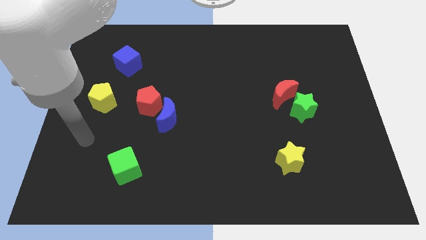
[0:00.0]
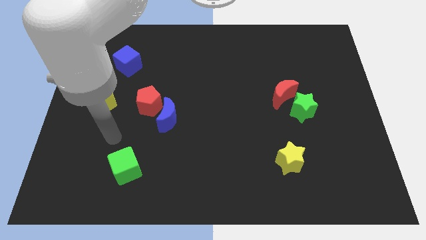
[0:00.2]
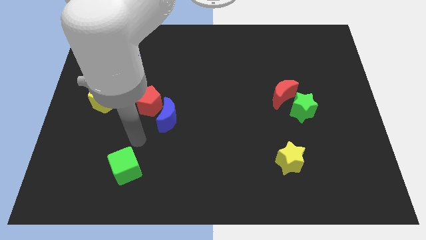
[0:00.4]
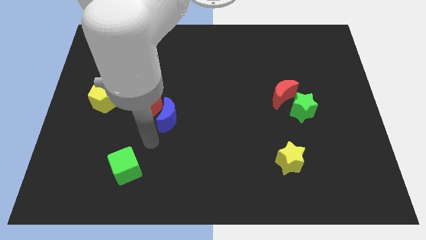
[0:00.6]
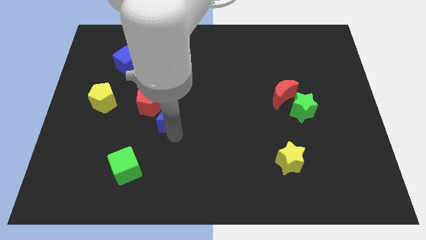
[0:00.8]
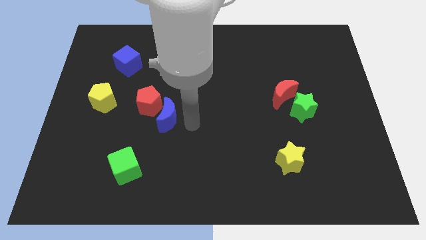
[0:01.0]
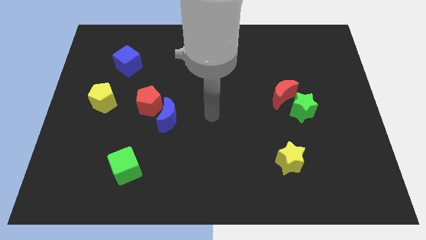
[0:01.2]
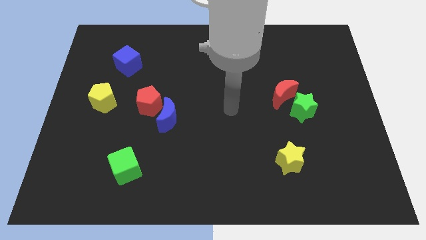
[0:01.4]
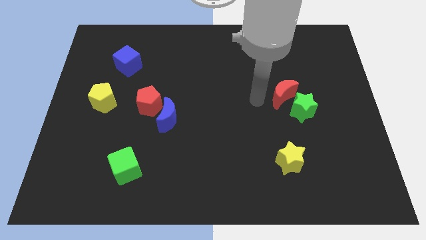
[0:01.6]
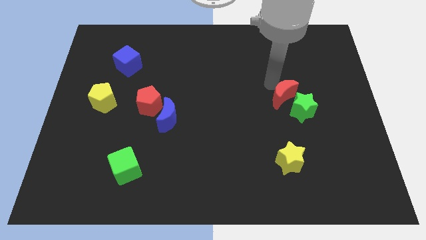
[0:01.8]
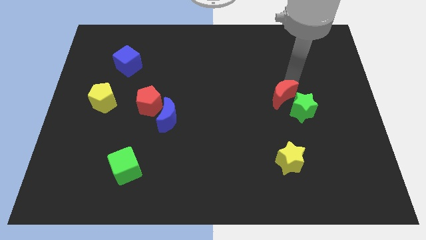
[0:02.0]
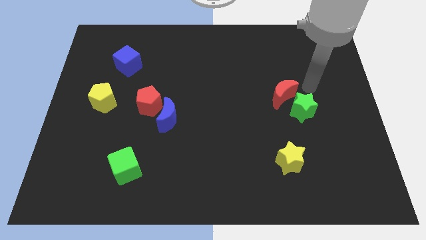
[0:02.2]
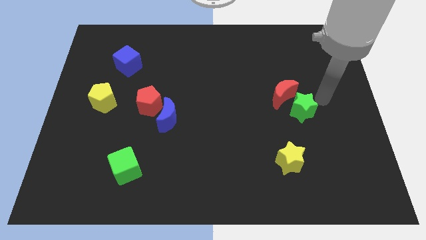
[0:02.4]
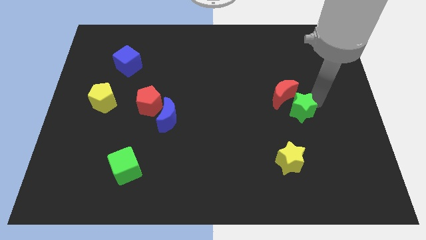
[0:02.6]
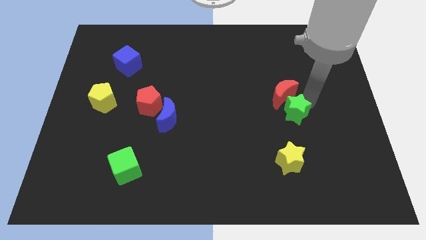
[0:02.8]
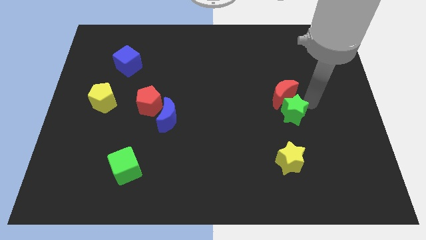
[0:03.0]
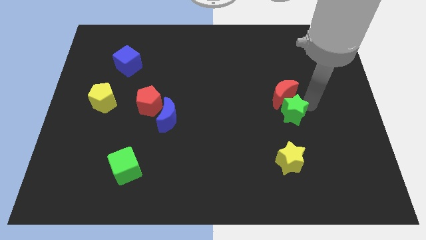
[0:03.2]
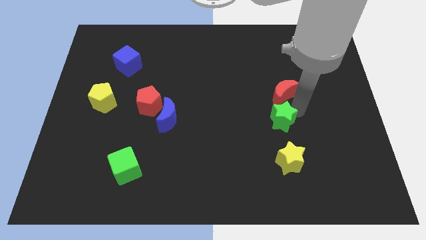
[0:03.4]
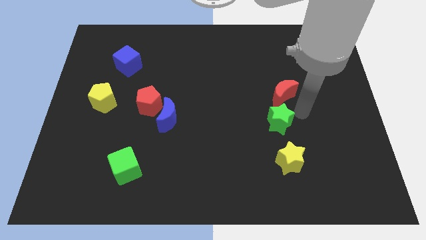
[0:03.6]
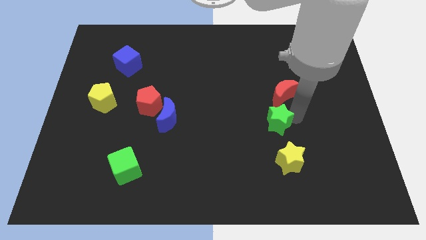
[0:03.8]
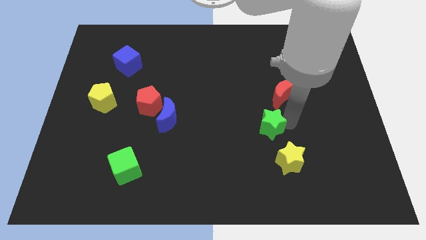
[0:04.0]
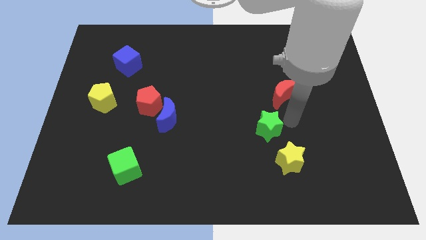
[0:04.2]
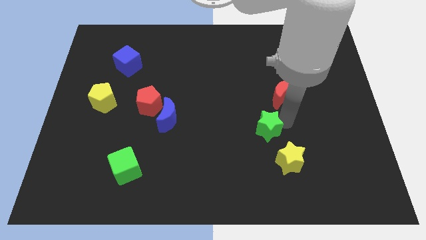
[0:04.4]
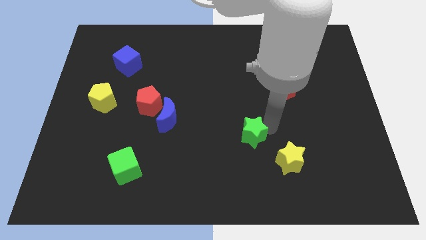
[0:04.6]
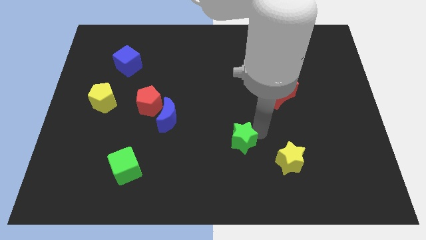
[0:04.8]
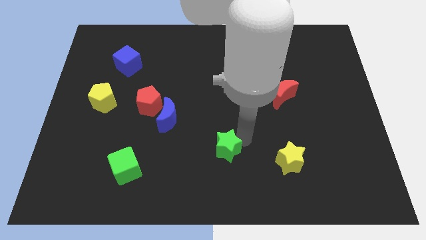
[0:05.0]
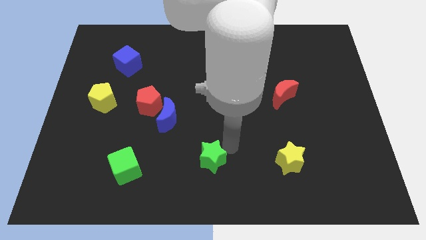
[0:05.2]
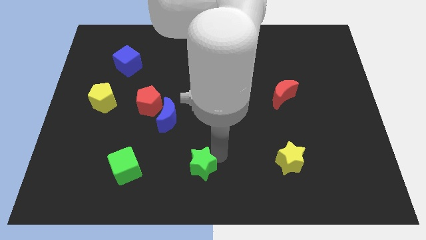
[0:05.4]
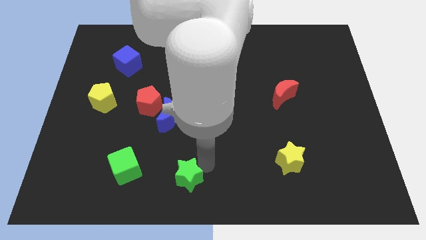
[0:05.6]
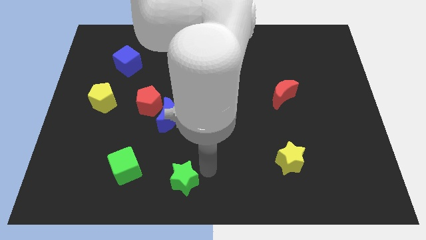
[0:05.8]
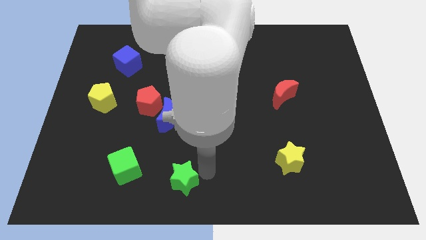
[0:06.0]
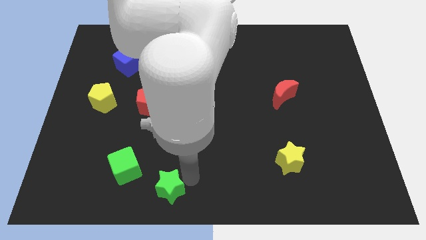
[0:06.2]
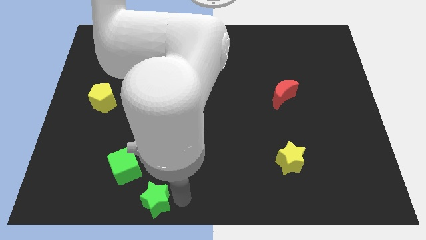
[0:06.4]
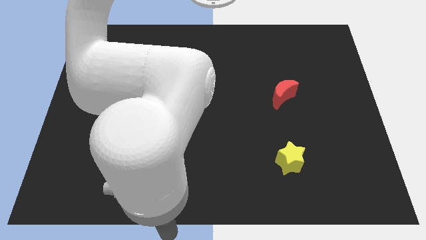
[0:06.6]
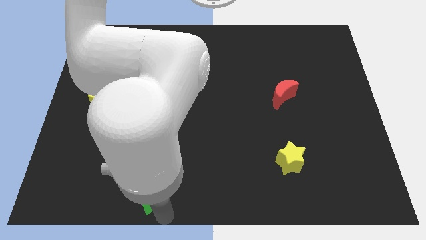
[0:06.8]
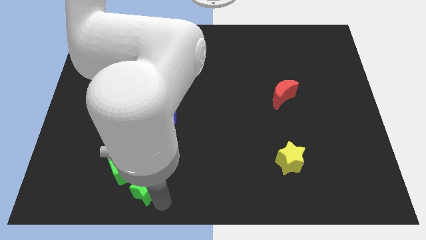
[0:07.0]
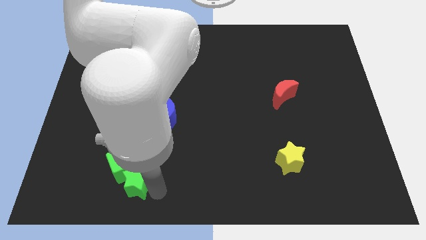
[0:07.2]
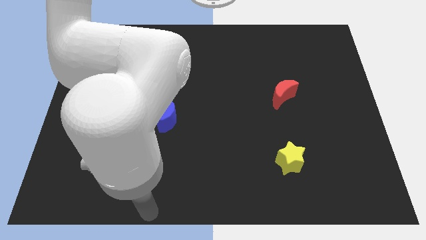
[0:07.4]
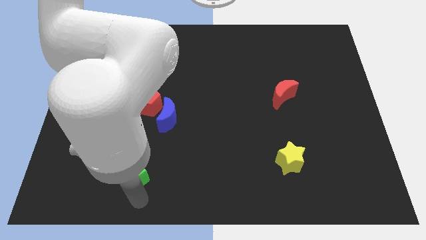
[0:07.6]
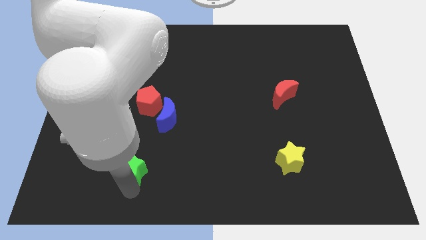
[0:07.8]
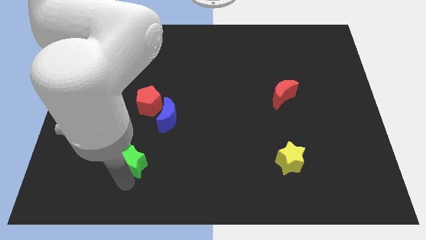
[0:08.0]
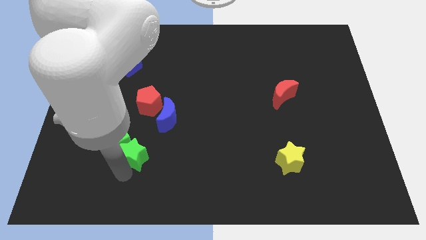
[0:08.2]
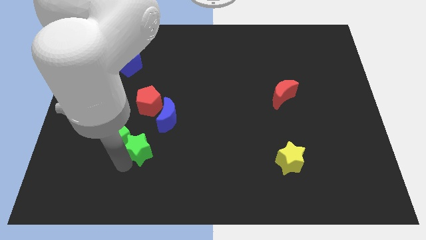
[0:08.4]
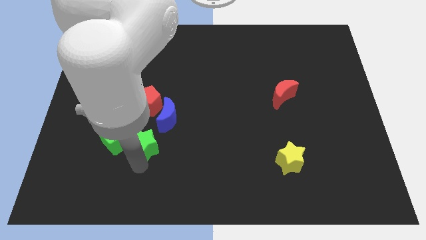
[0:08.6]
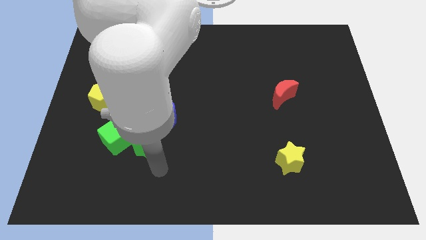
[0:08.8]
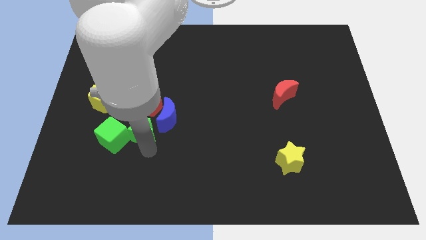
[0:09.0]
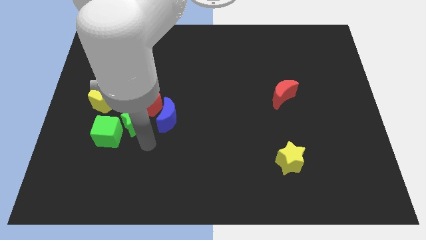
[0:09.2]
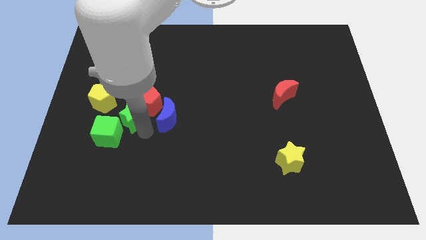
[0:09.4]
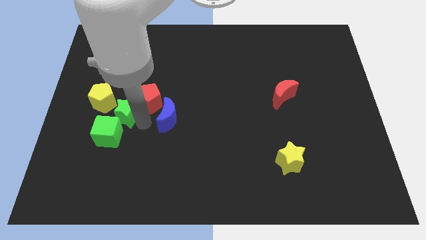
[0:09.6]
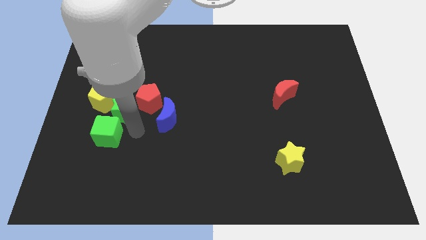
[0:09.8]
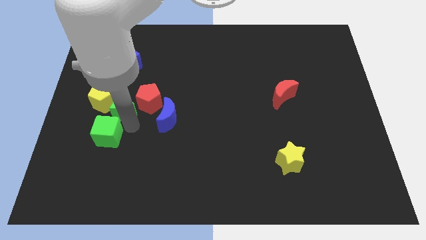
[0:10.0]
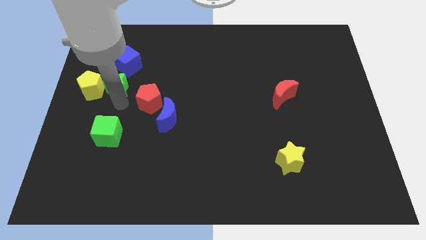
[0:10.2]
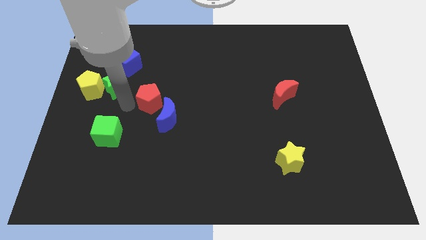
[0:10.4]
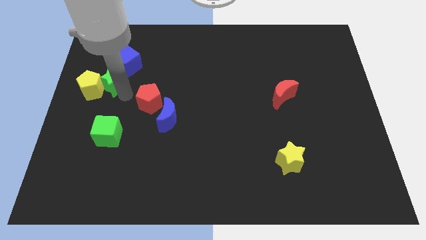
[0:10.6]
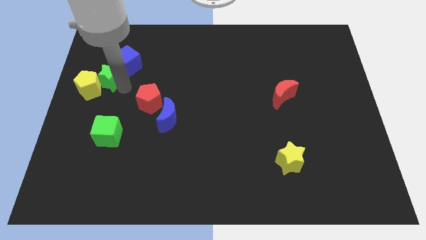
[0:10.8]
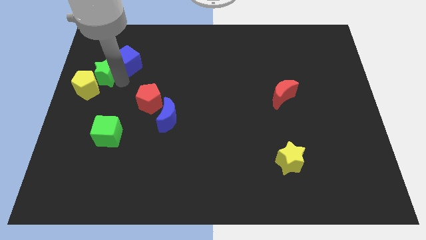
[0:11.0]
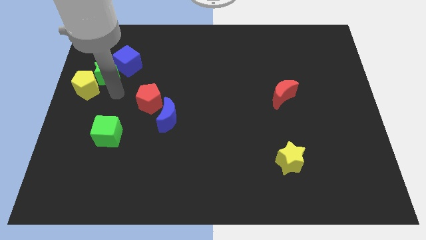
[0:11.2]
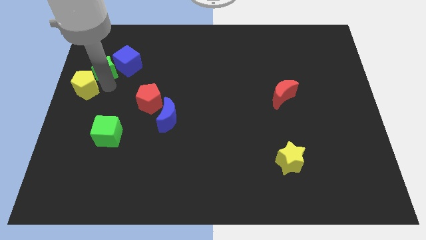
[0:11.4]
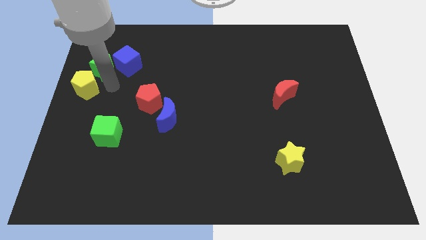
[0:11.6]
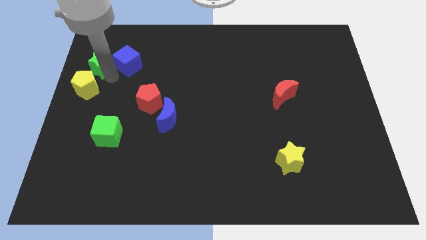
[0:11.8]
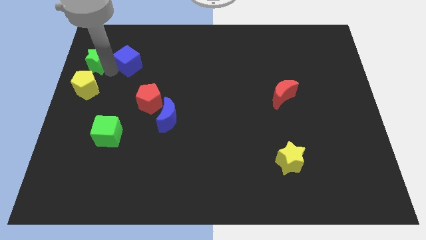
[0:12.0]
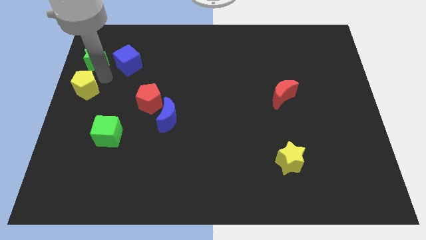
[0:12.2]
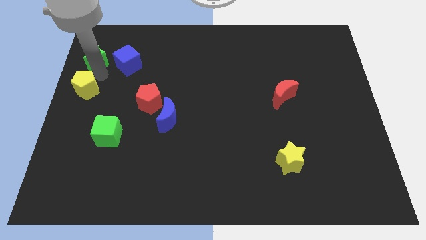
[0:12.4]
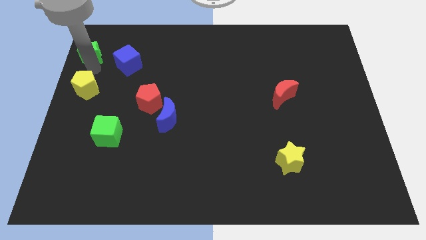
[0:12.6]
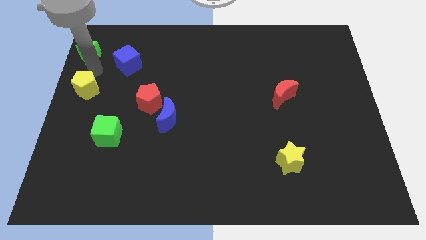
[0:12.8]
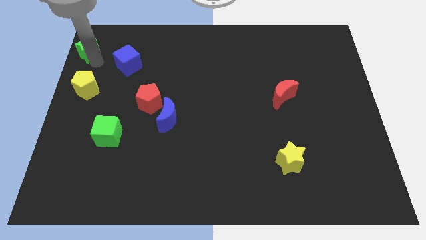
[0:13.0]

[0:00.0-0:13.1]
put the green star to the top left of the board

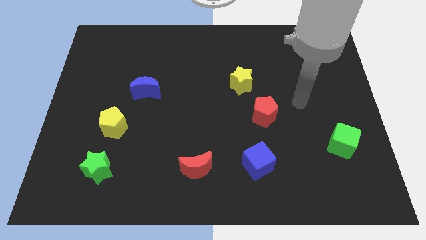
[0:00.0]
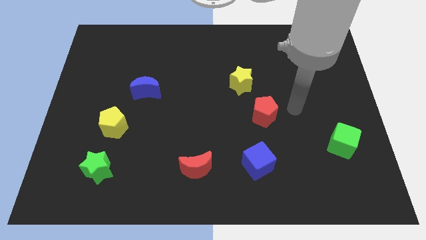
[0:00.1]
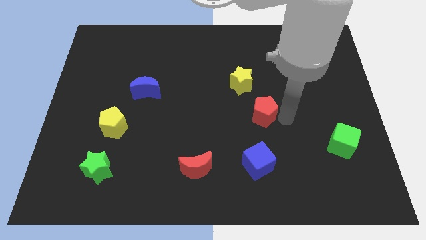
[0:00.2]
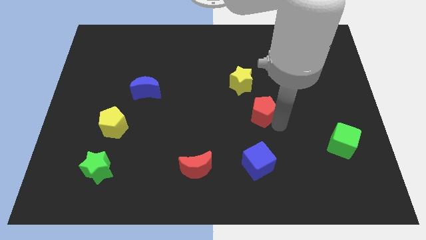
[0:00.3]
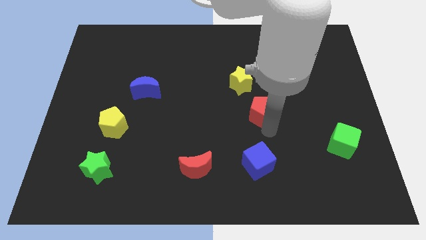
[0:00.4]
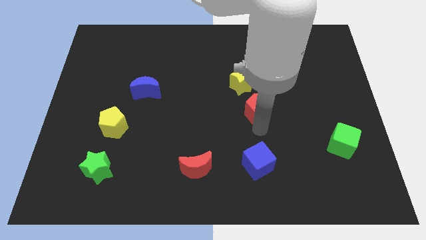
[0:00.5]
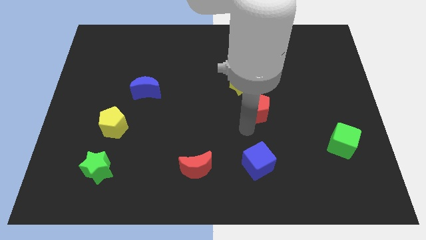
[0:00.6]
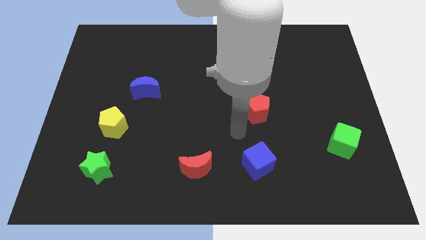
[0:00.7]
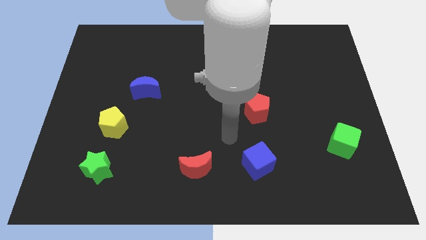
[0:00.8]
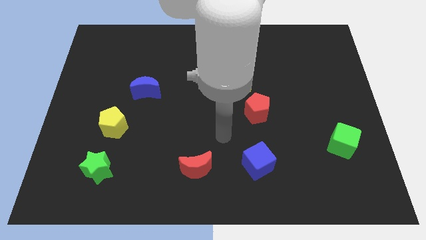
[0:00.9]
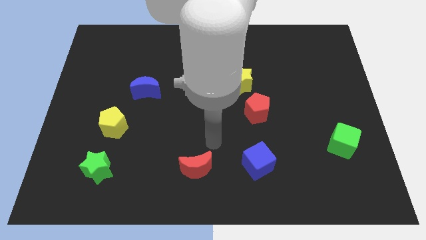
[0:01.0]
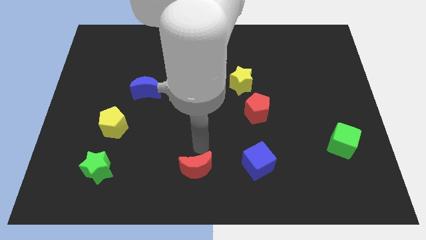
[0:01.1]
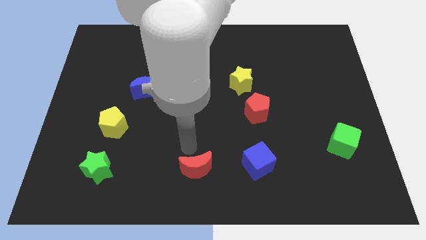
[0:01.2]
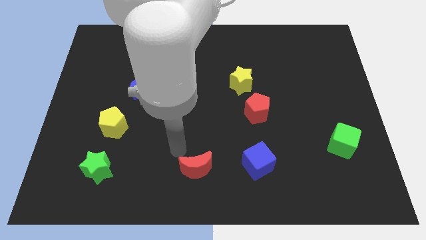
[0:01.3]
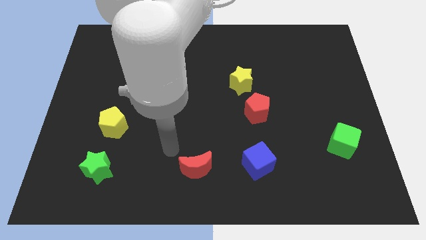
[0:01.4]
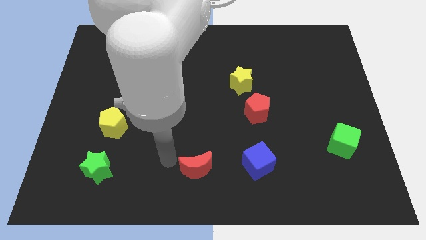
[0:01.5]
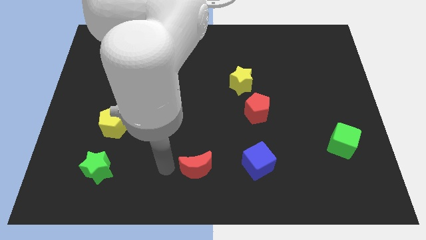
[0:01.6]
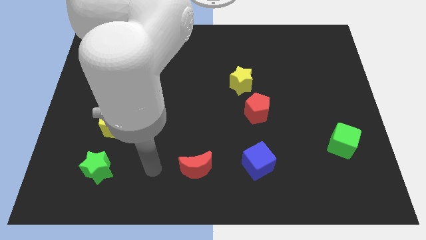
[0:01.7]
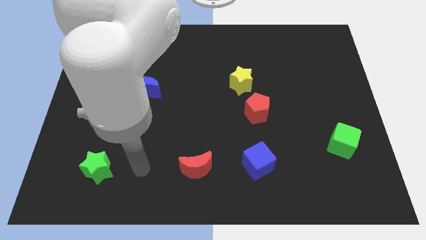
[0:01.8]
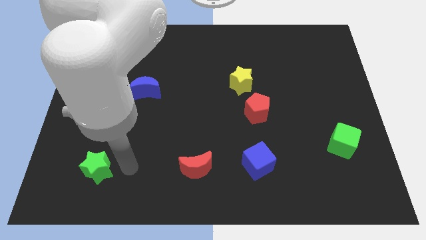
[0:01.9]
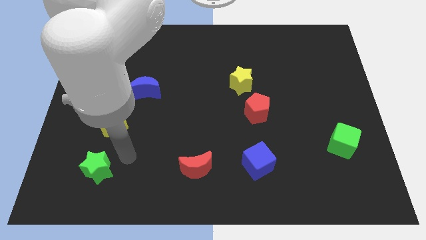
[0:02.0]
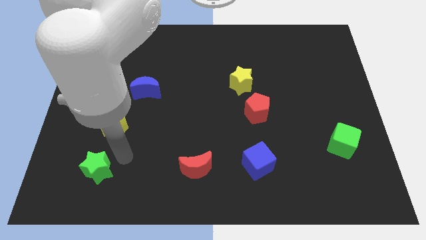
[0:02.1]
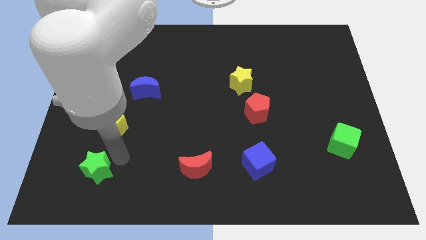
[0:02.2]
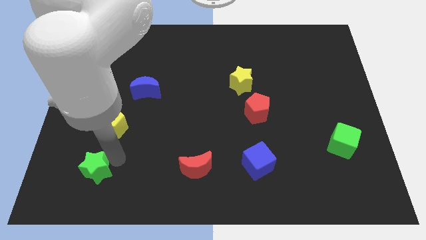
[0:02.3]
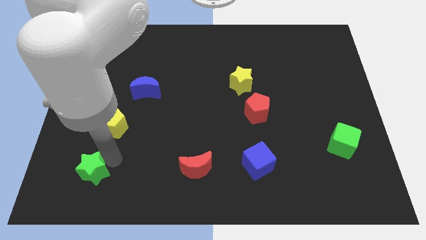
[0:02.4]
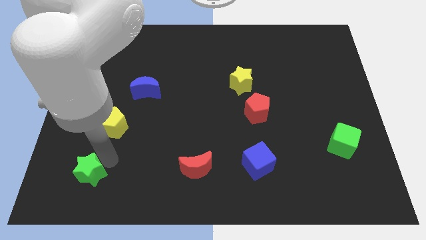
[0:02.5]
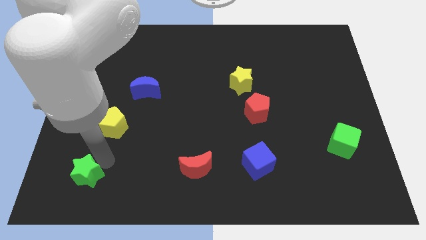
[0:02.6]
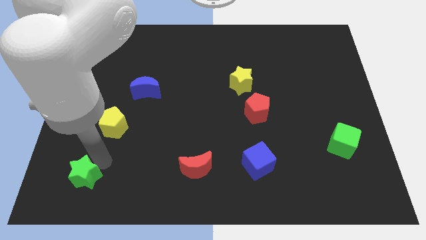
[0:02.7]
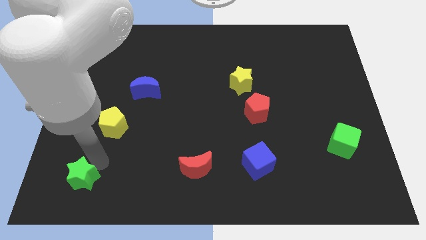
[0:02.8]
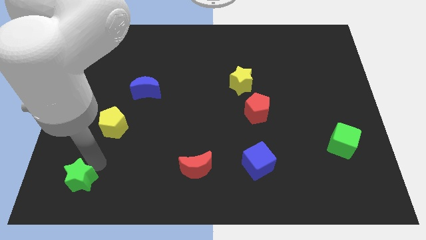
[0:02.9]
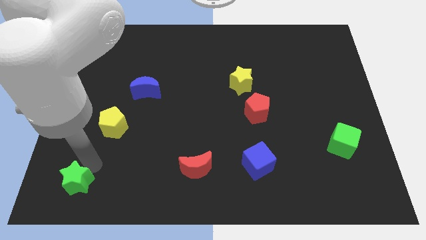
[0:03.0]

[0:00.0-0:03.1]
push the green star to the bottom left corner
